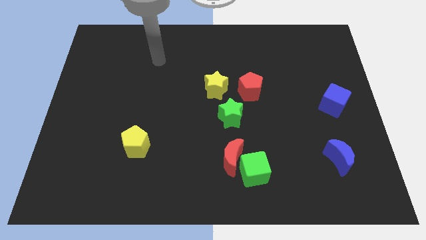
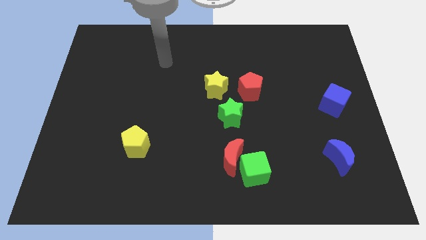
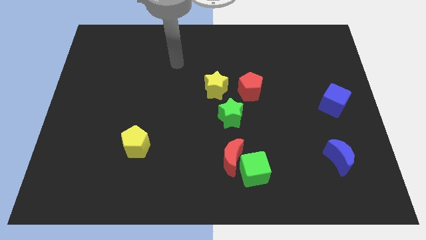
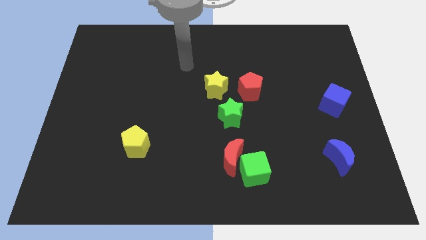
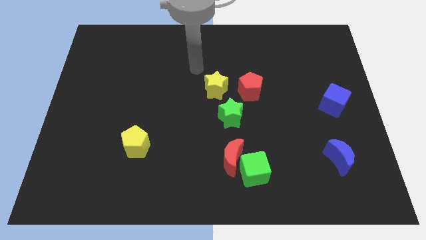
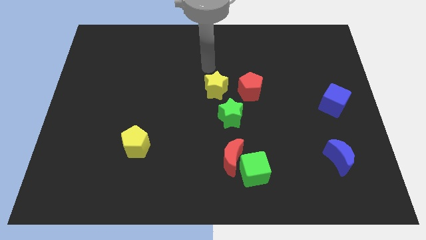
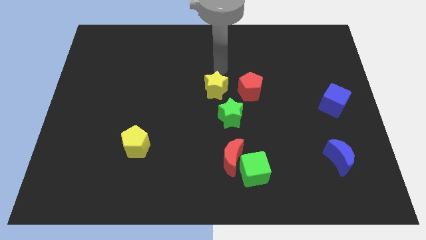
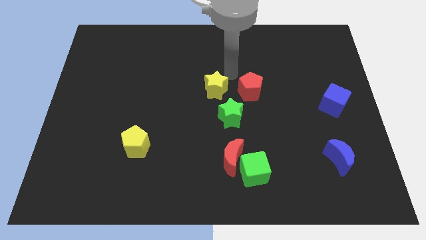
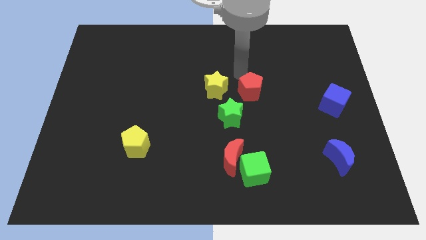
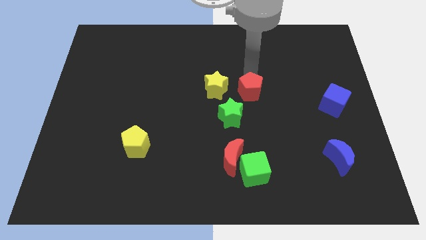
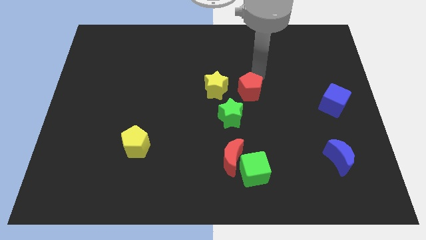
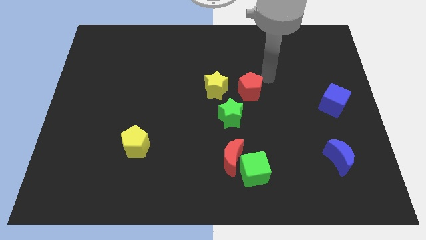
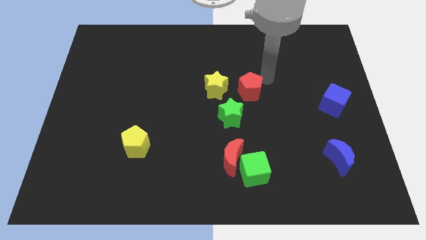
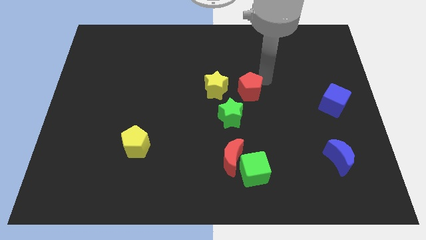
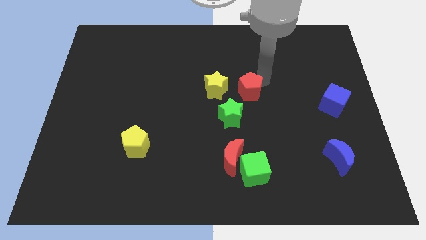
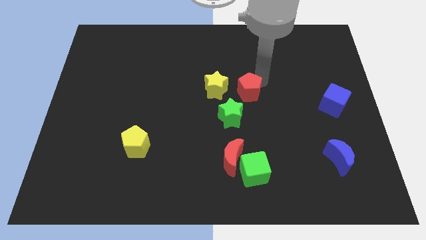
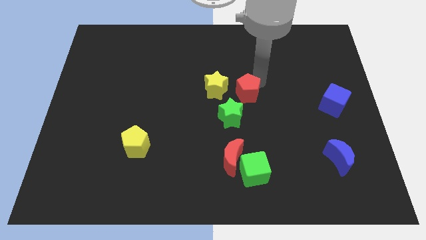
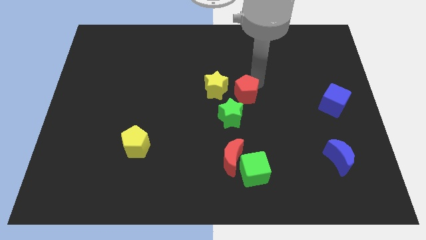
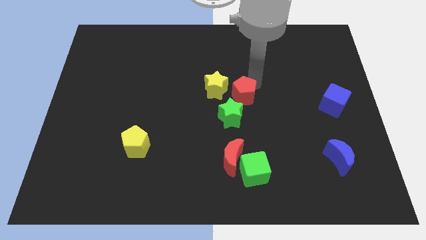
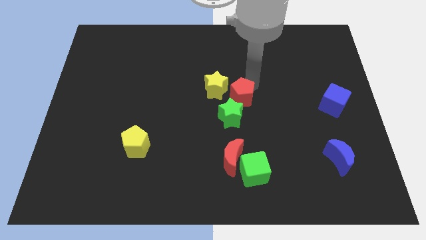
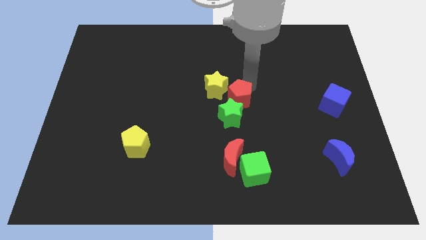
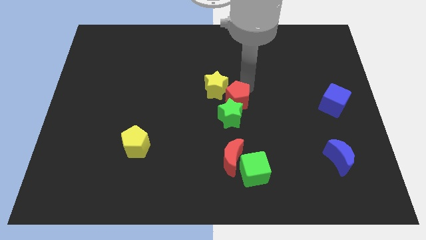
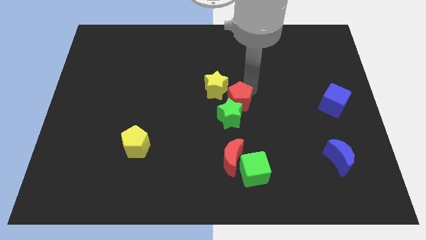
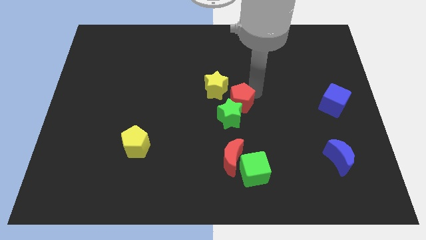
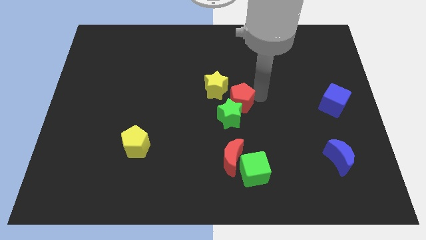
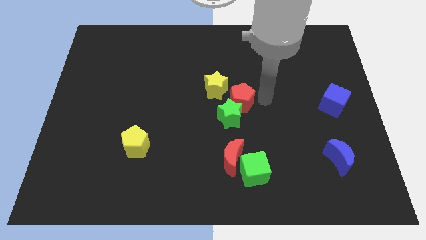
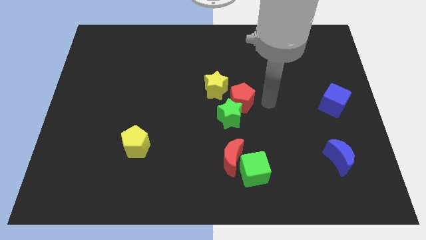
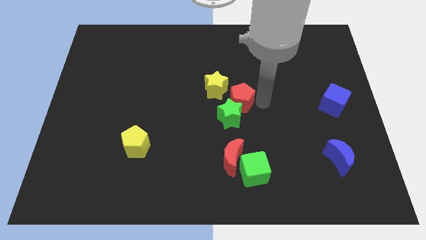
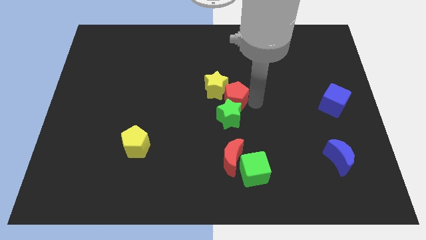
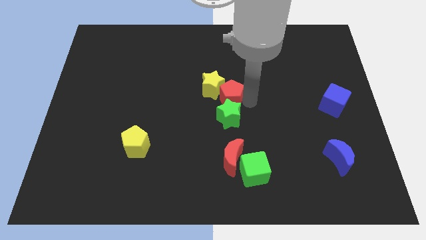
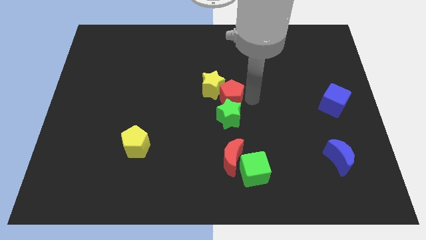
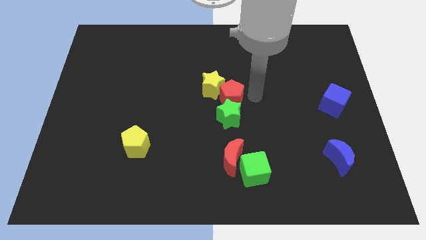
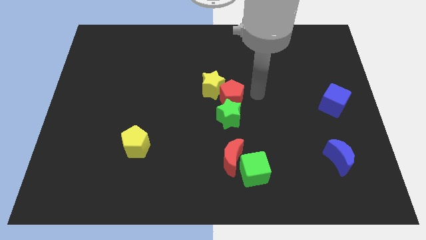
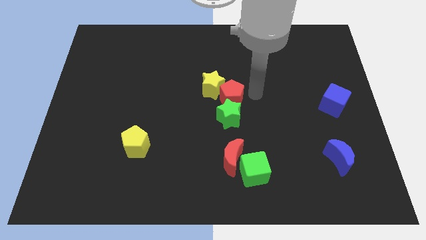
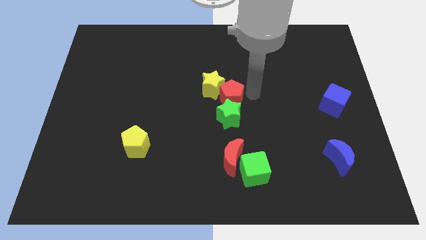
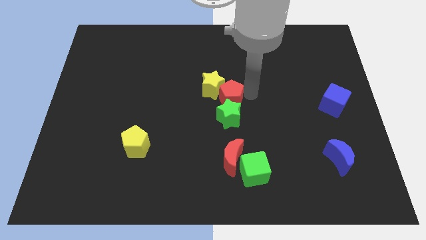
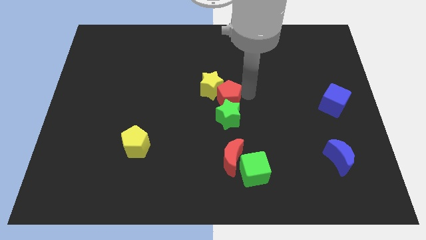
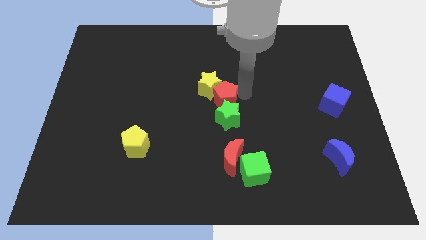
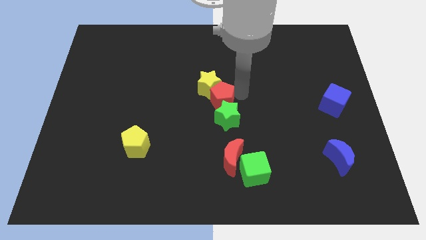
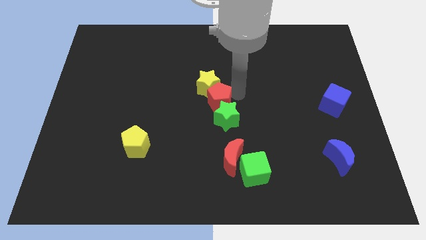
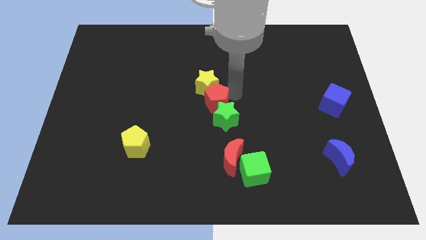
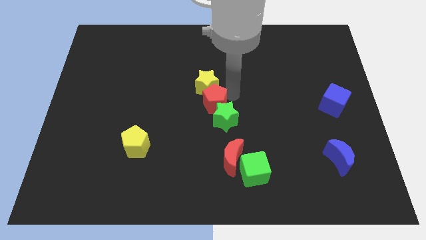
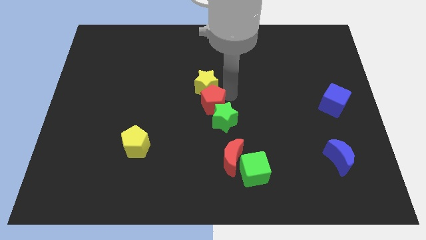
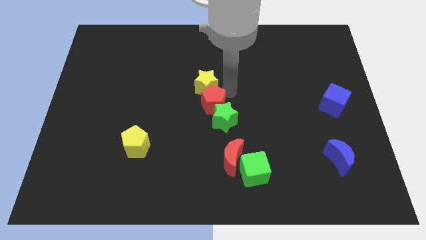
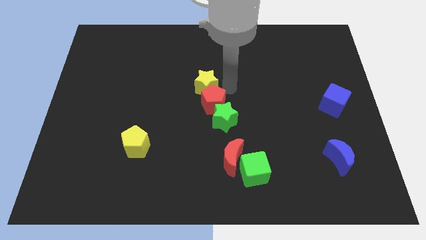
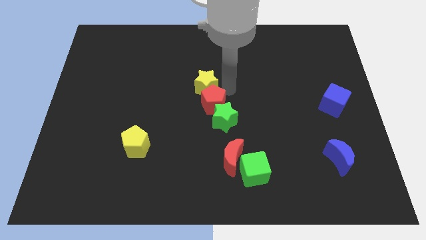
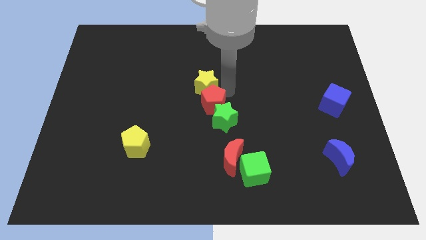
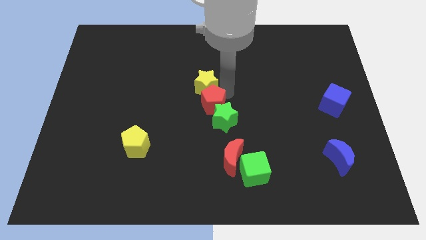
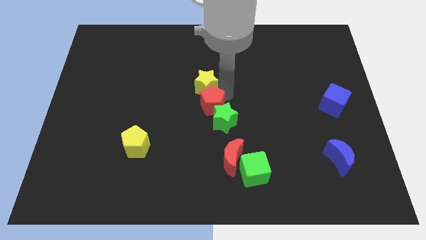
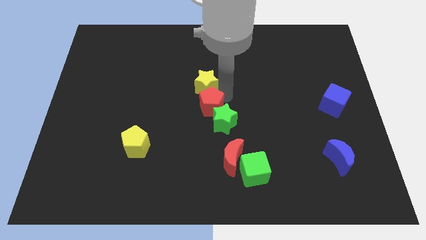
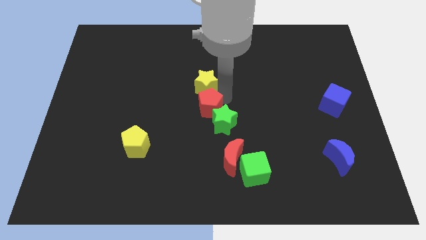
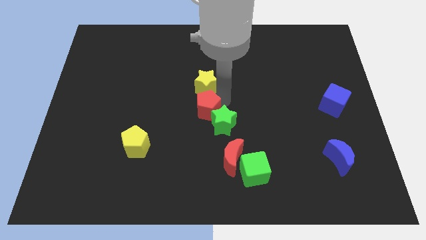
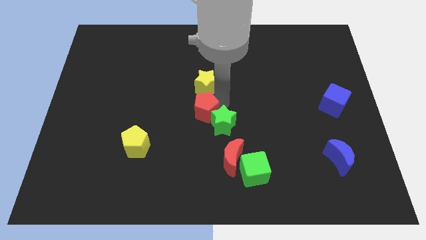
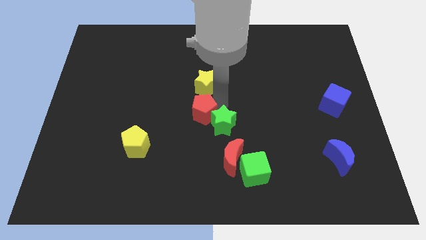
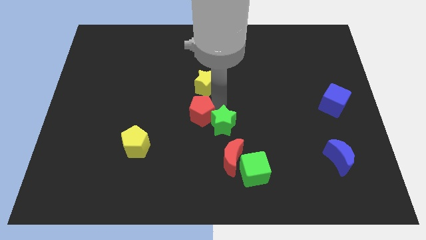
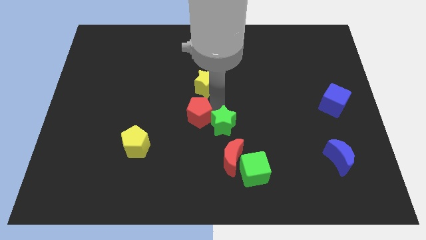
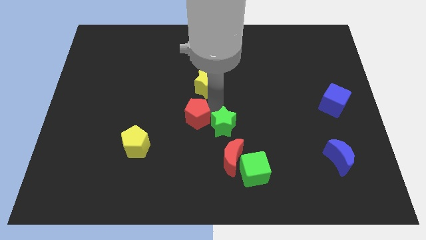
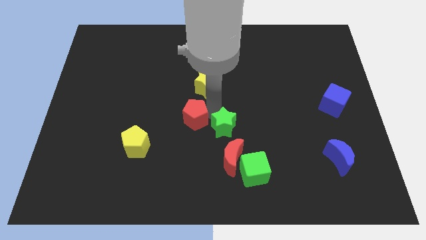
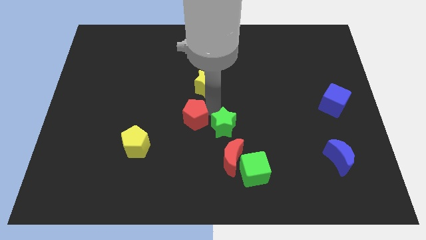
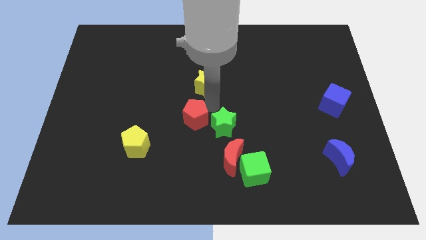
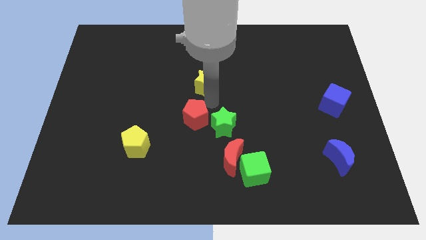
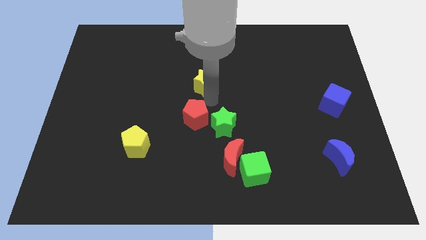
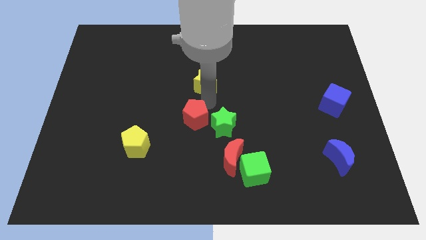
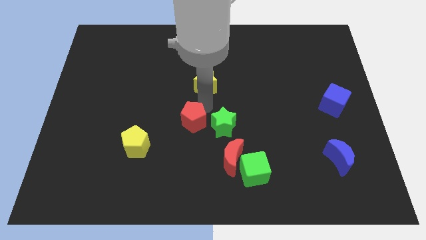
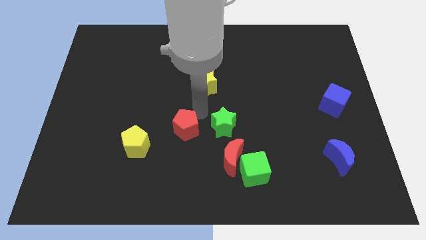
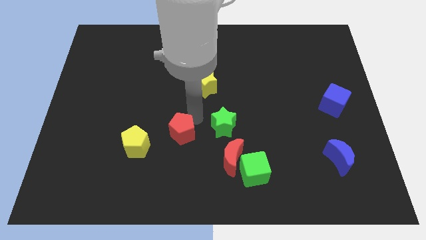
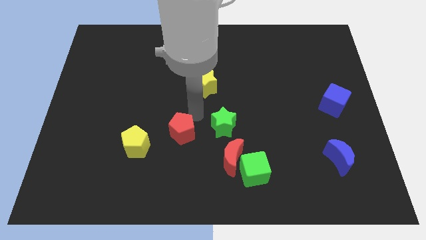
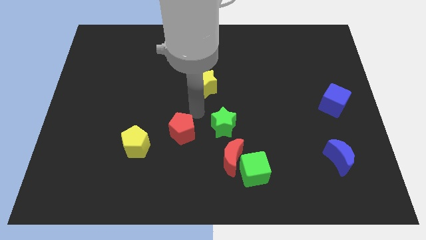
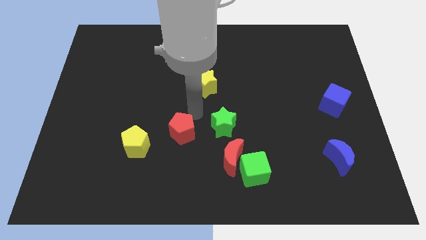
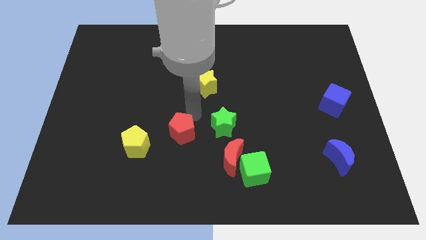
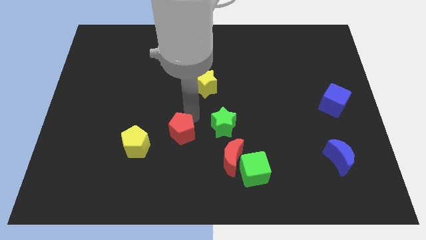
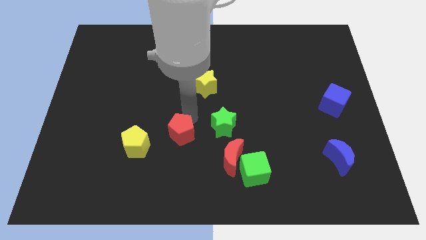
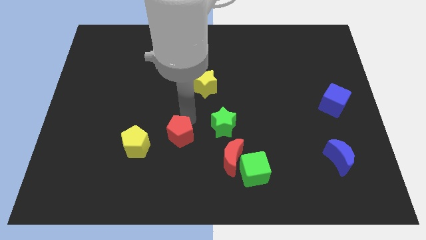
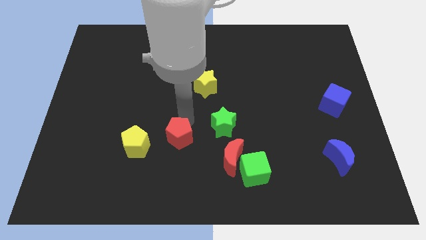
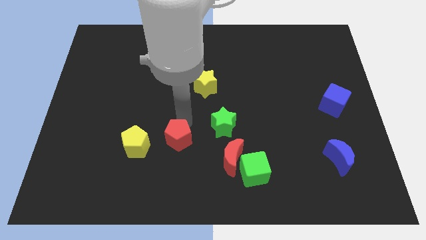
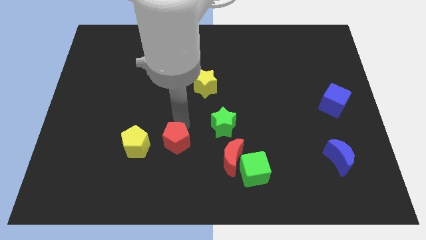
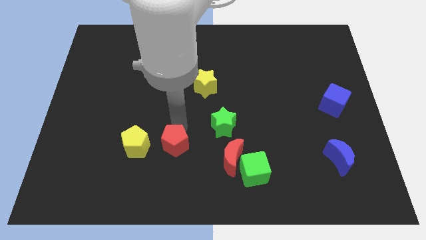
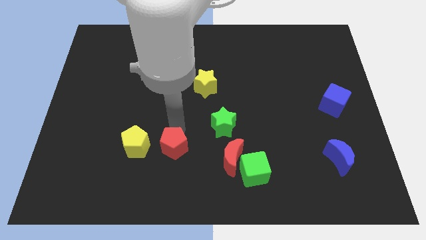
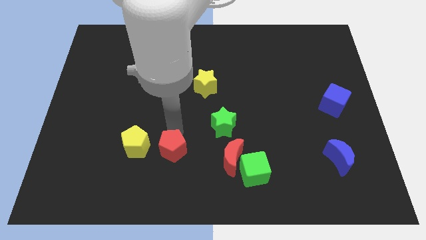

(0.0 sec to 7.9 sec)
push the red pentagon to the bottom right of the yellow pentagon
